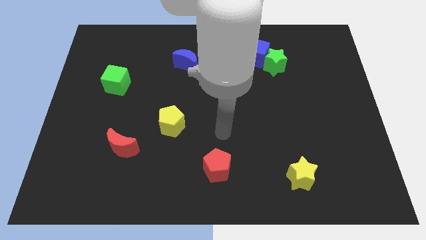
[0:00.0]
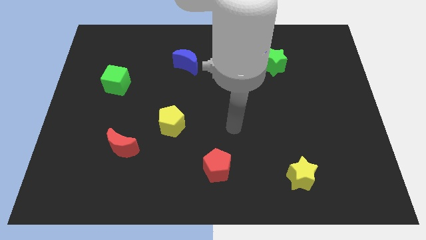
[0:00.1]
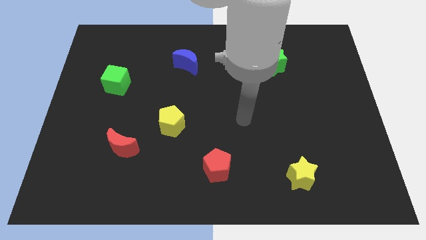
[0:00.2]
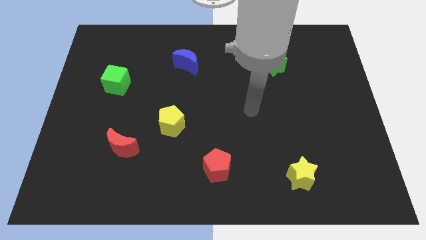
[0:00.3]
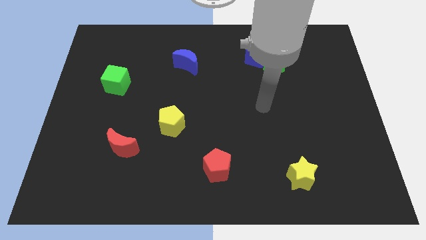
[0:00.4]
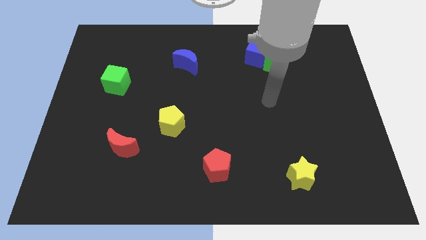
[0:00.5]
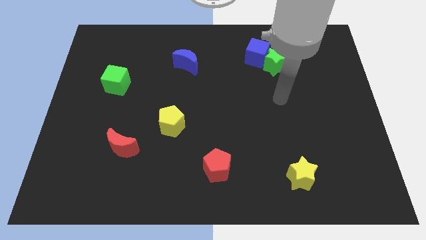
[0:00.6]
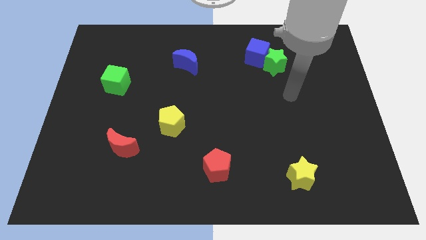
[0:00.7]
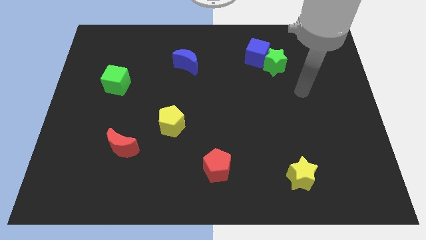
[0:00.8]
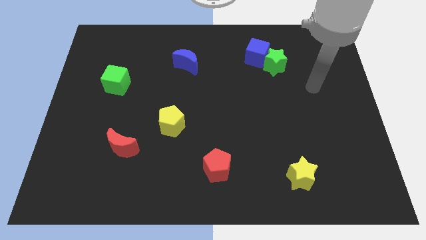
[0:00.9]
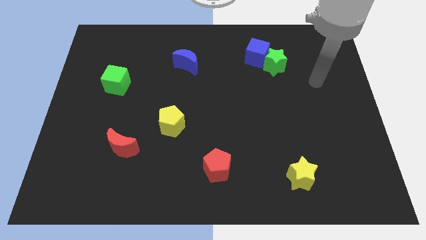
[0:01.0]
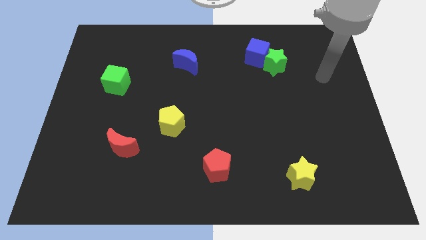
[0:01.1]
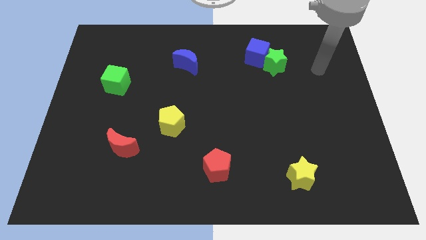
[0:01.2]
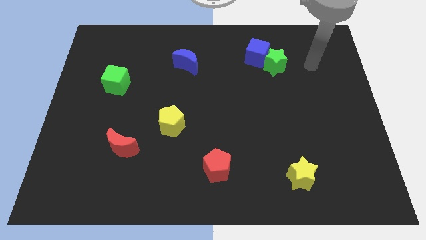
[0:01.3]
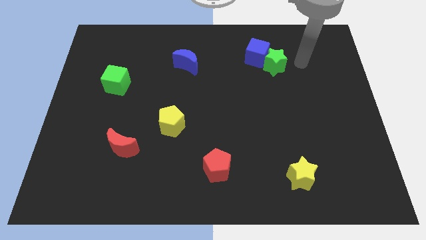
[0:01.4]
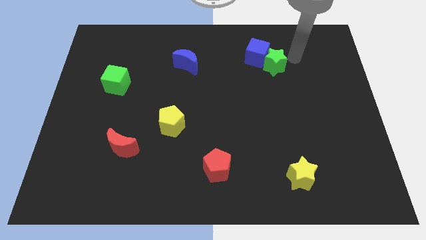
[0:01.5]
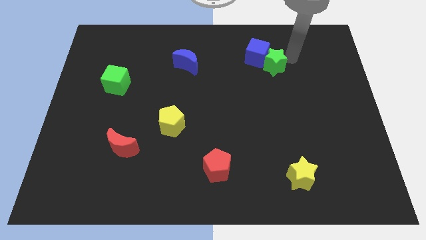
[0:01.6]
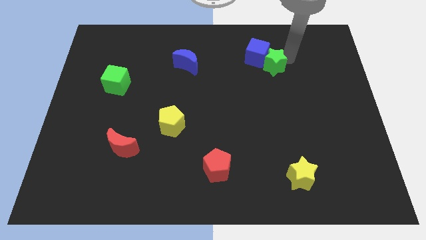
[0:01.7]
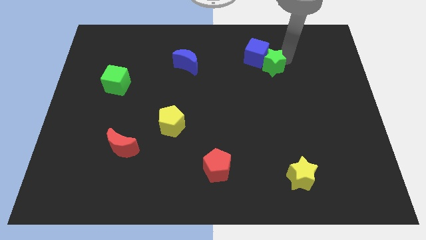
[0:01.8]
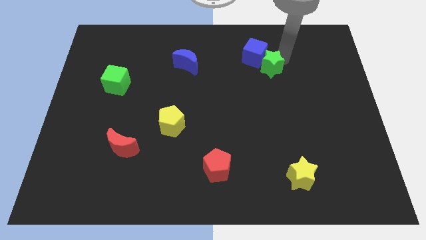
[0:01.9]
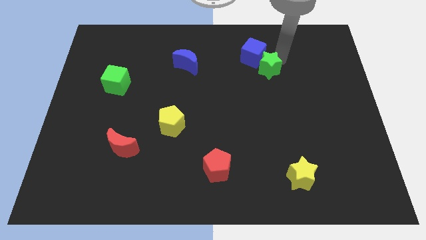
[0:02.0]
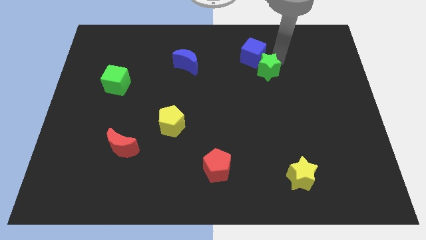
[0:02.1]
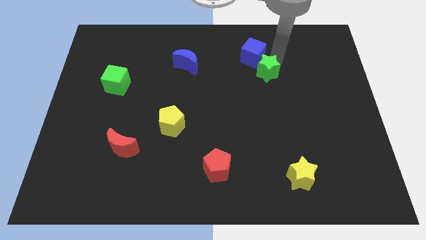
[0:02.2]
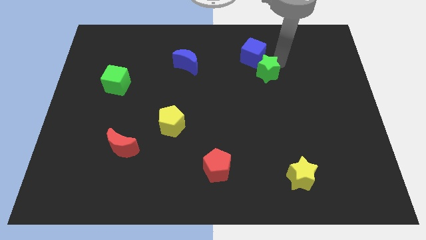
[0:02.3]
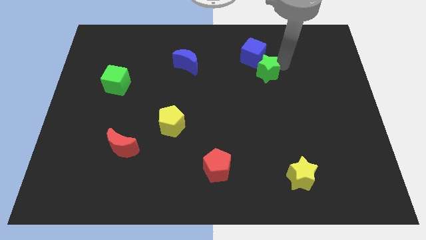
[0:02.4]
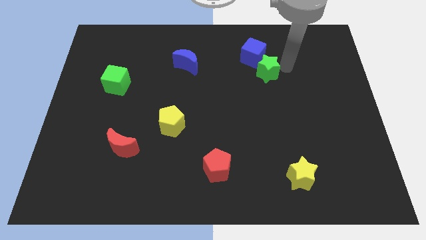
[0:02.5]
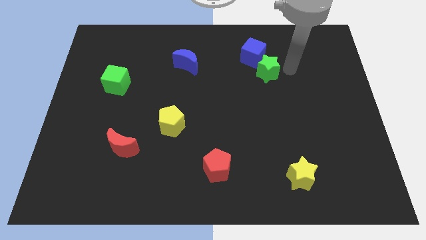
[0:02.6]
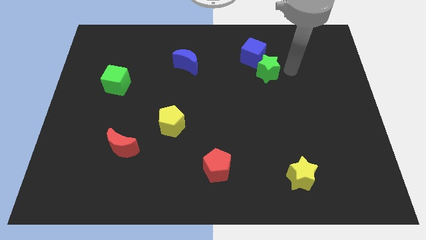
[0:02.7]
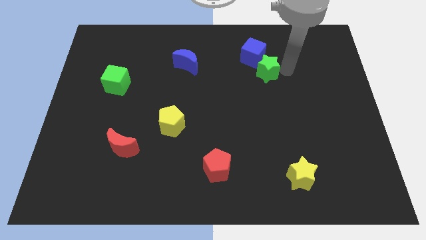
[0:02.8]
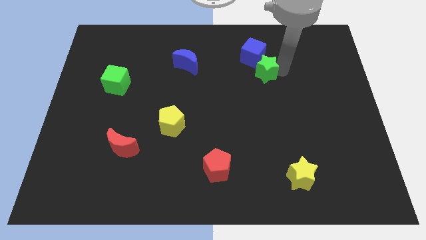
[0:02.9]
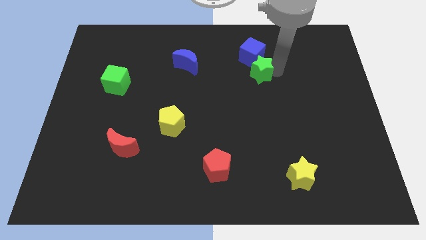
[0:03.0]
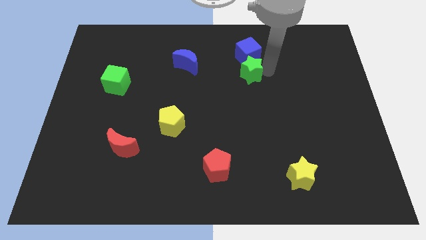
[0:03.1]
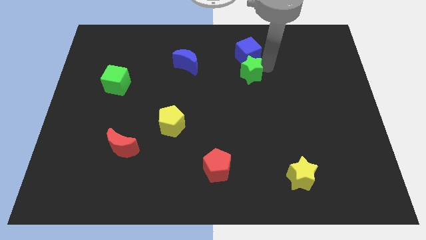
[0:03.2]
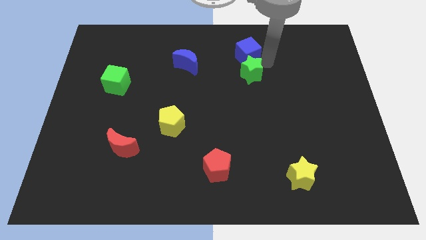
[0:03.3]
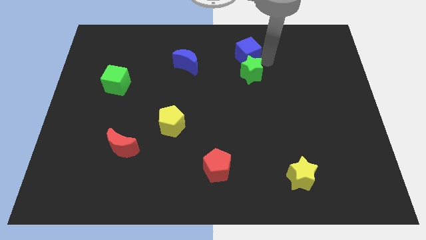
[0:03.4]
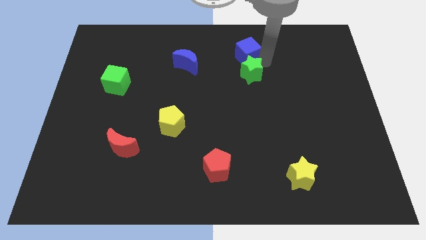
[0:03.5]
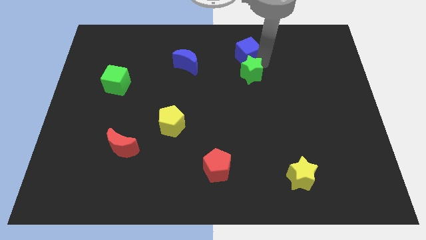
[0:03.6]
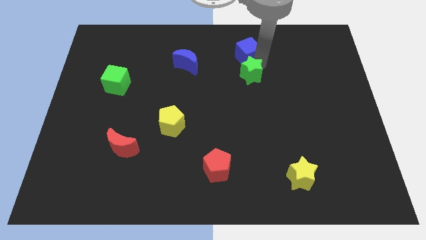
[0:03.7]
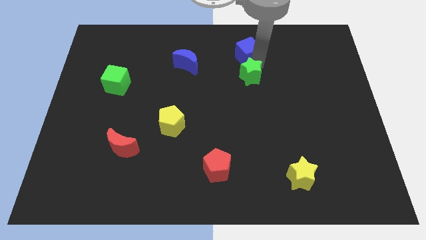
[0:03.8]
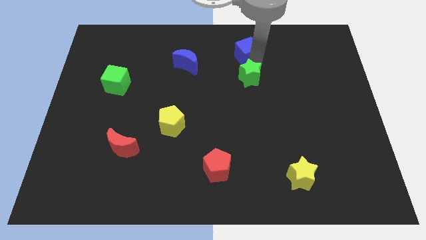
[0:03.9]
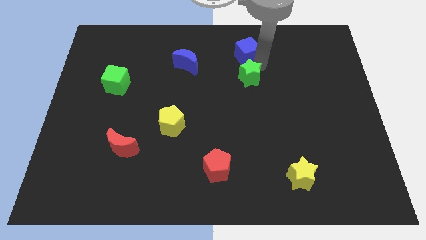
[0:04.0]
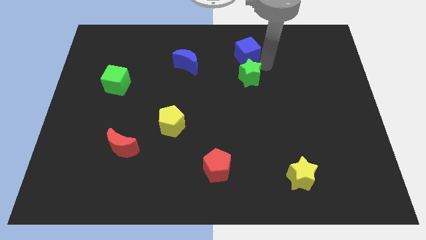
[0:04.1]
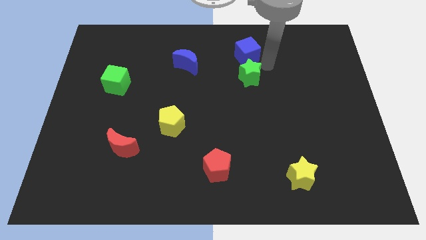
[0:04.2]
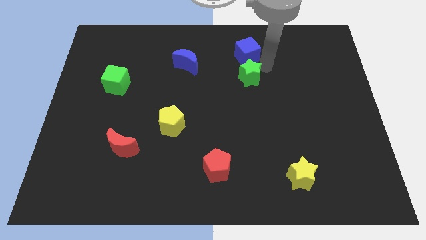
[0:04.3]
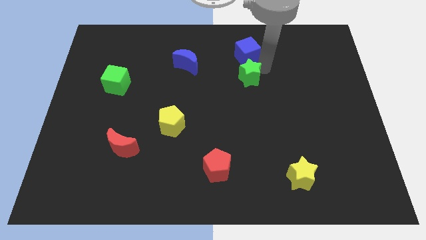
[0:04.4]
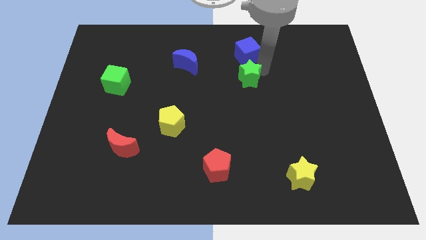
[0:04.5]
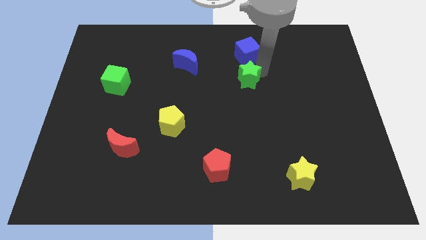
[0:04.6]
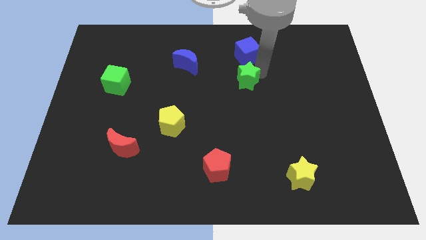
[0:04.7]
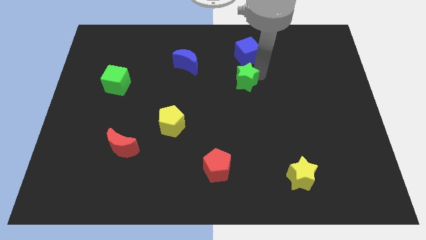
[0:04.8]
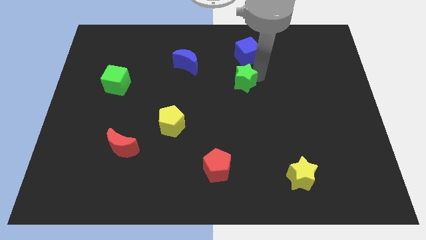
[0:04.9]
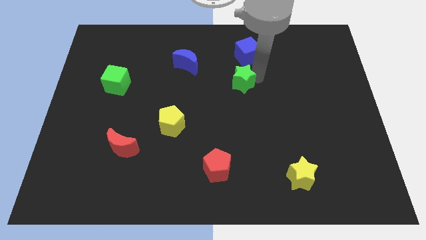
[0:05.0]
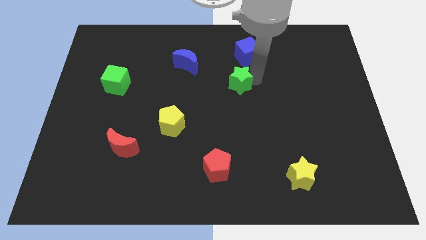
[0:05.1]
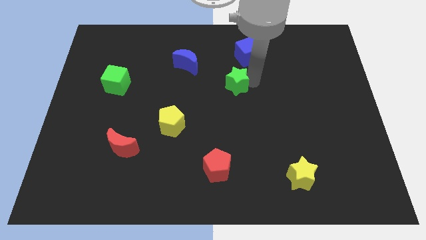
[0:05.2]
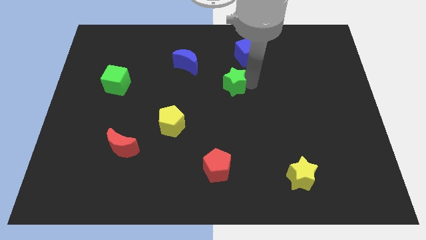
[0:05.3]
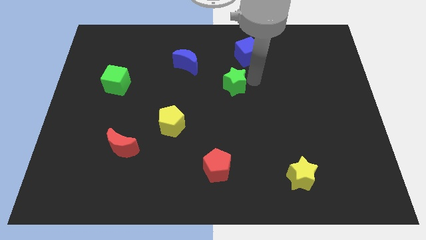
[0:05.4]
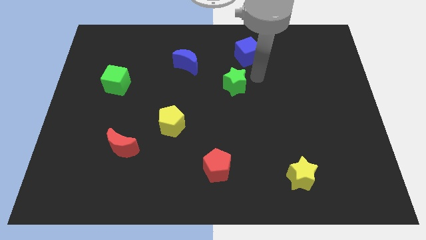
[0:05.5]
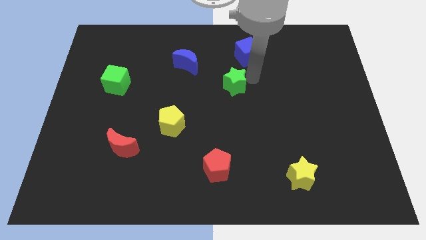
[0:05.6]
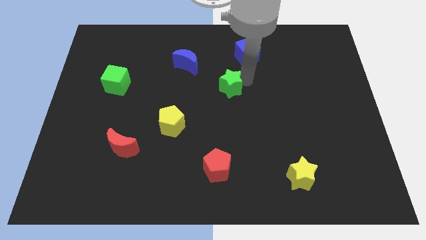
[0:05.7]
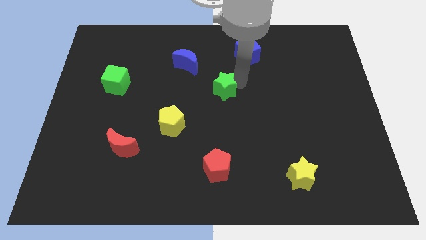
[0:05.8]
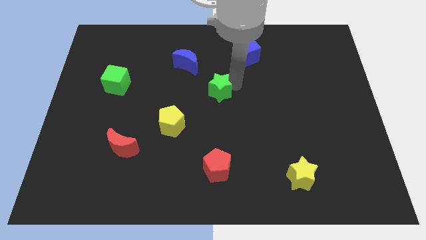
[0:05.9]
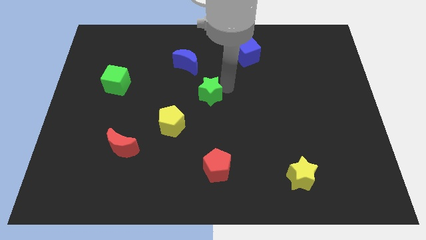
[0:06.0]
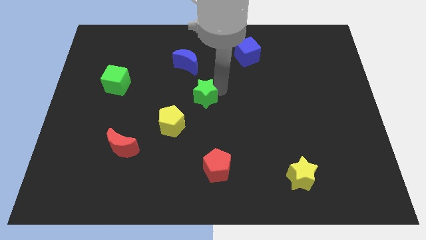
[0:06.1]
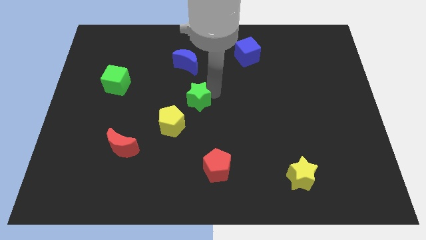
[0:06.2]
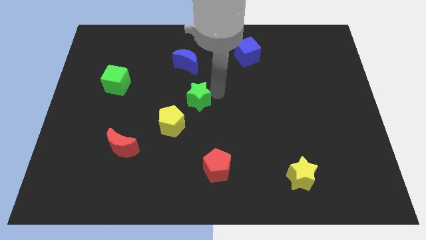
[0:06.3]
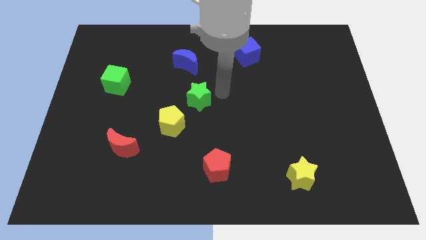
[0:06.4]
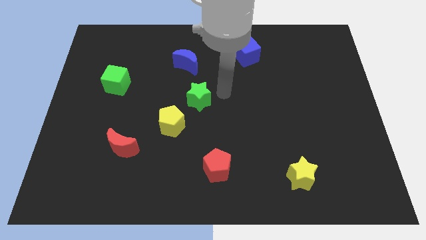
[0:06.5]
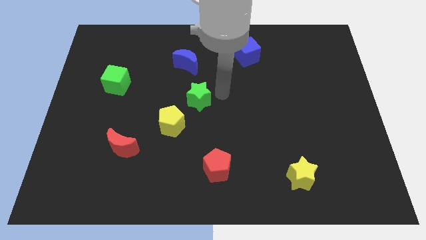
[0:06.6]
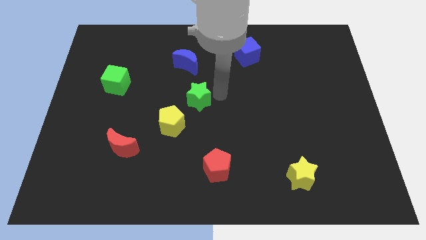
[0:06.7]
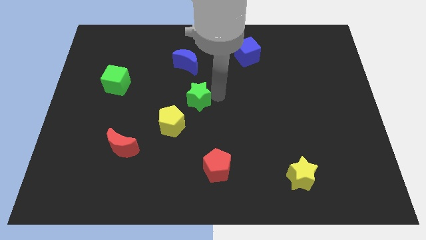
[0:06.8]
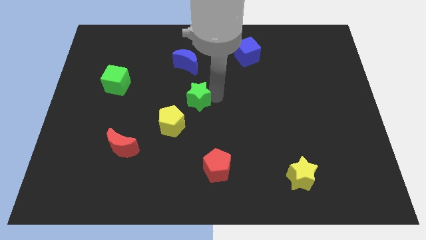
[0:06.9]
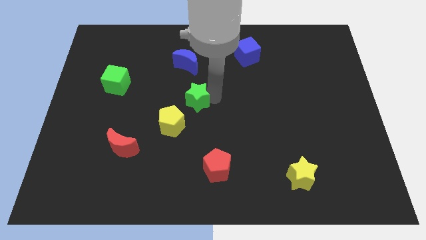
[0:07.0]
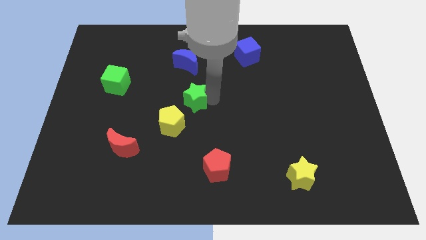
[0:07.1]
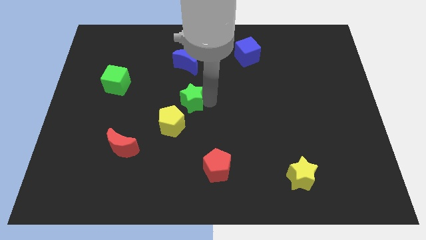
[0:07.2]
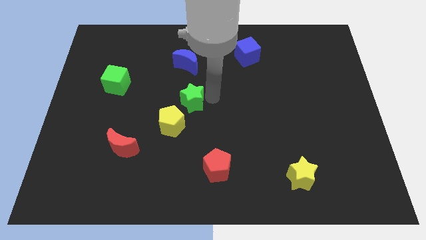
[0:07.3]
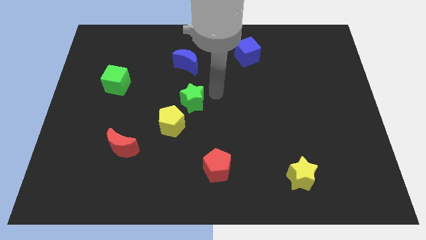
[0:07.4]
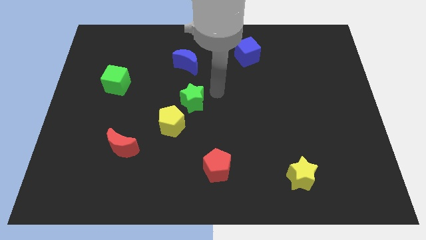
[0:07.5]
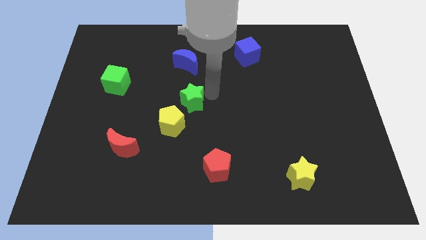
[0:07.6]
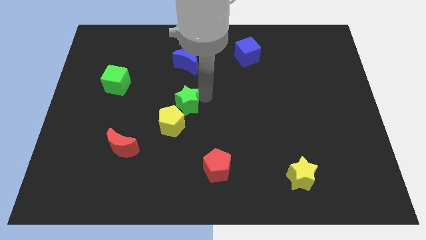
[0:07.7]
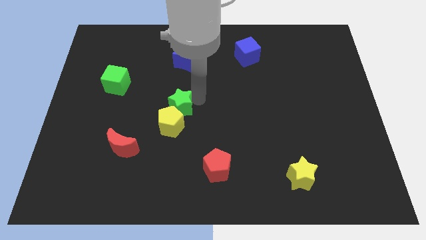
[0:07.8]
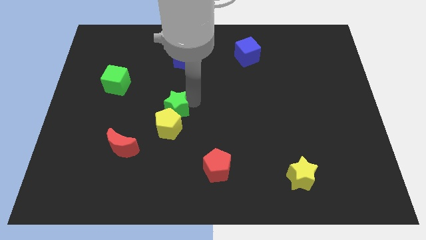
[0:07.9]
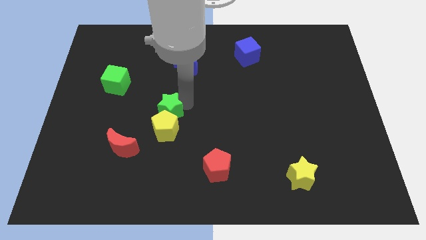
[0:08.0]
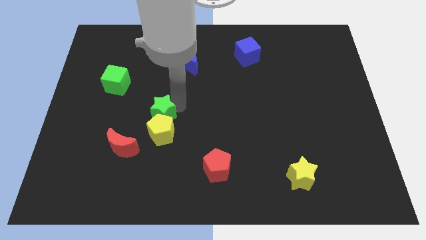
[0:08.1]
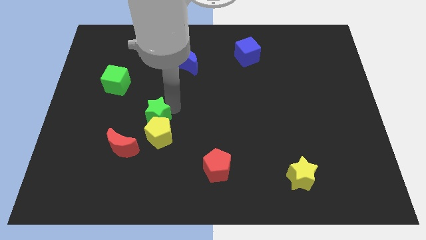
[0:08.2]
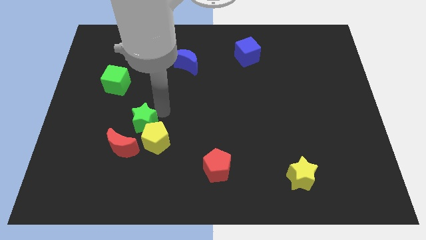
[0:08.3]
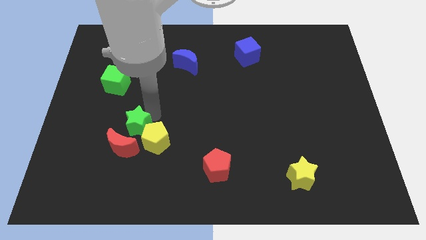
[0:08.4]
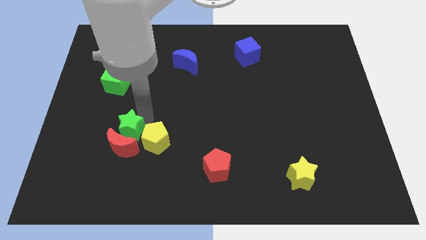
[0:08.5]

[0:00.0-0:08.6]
slide the green star close to the red moon
